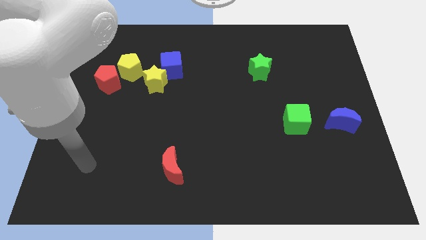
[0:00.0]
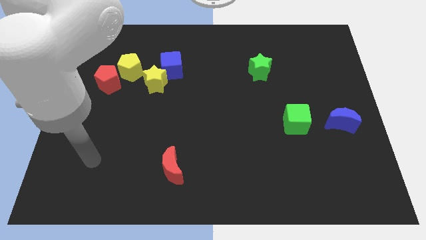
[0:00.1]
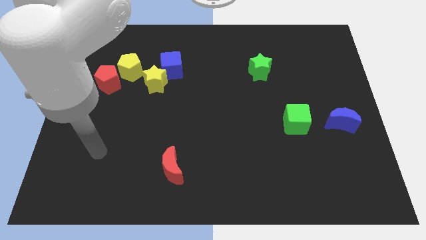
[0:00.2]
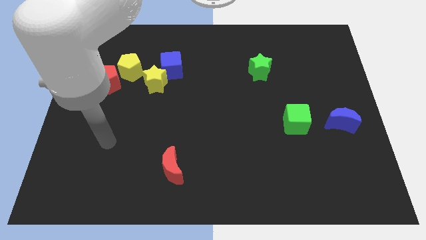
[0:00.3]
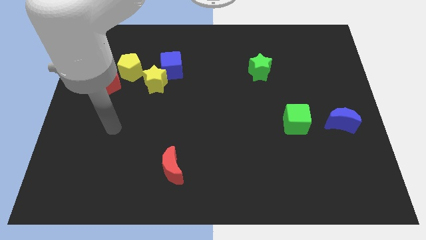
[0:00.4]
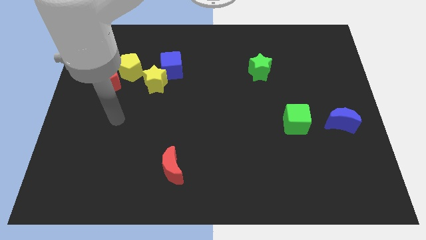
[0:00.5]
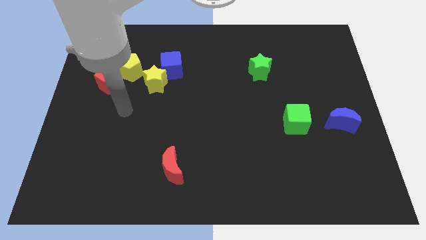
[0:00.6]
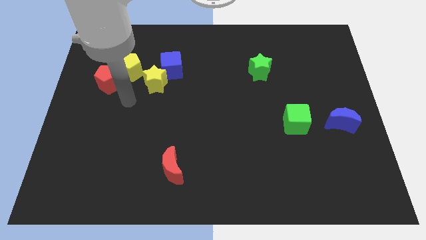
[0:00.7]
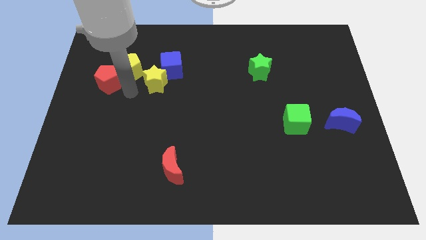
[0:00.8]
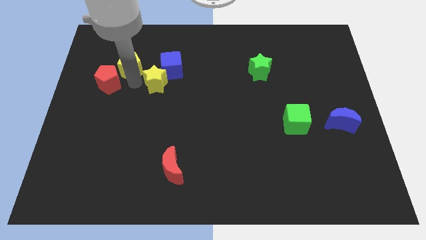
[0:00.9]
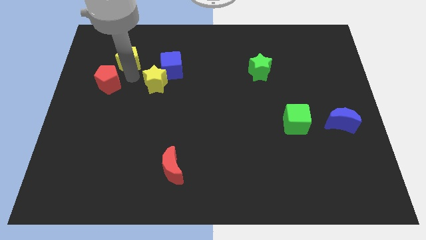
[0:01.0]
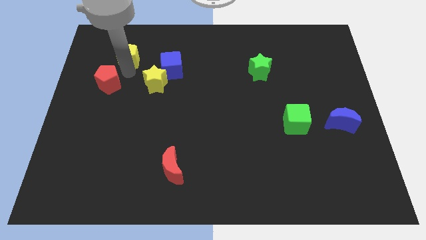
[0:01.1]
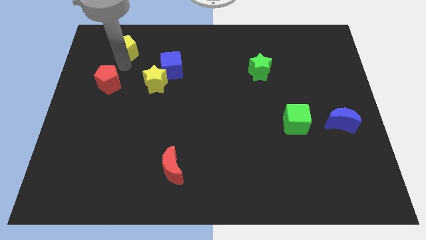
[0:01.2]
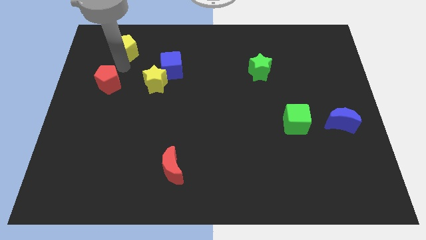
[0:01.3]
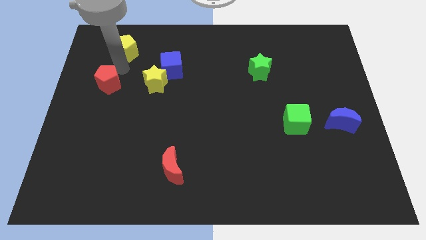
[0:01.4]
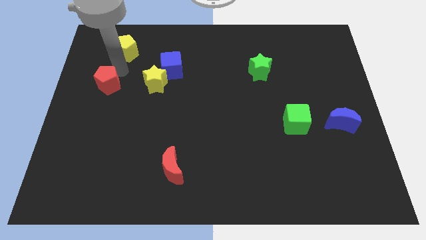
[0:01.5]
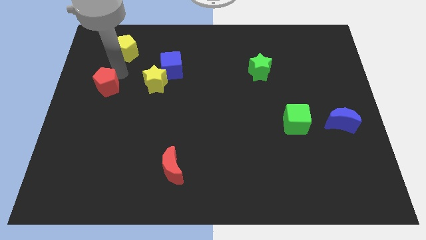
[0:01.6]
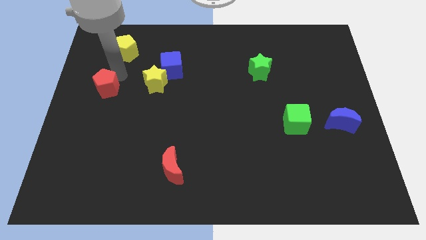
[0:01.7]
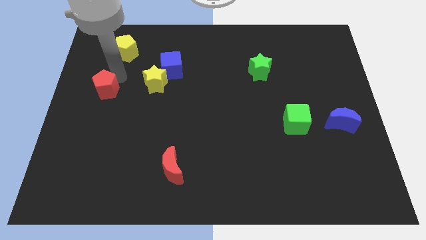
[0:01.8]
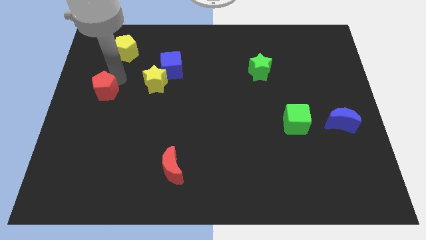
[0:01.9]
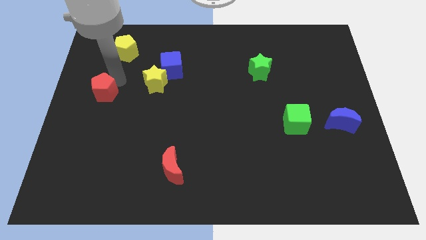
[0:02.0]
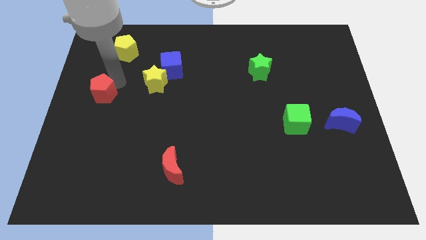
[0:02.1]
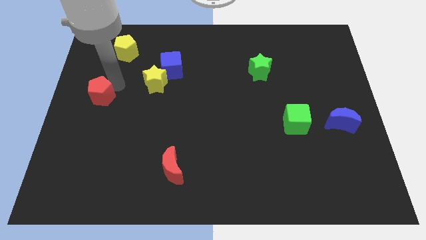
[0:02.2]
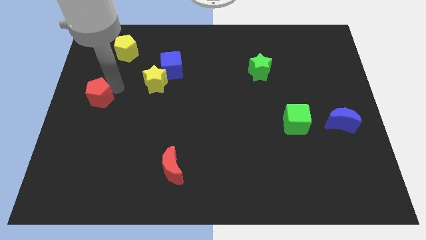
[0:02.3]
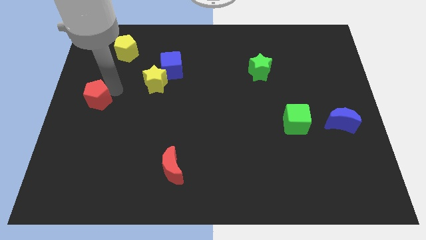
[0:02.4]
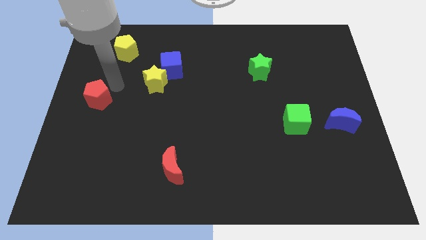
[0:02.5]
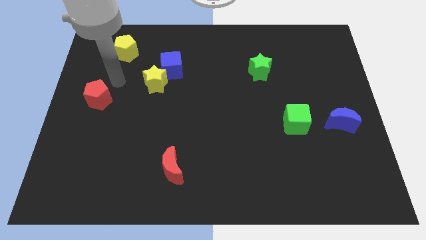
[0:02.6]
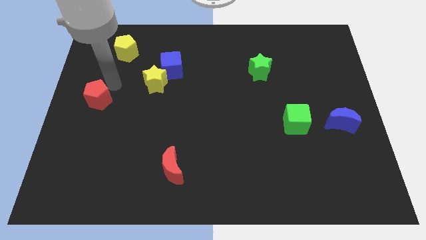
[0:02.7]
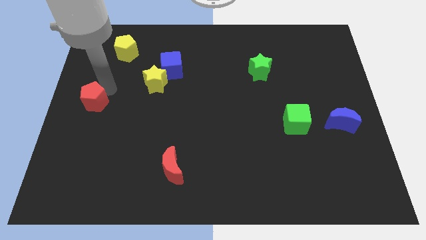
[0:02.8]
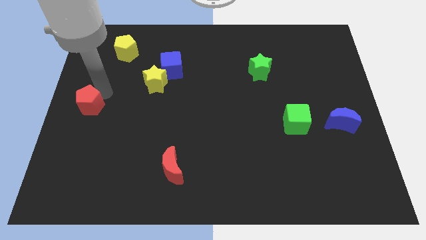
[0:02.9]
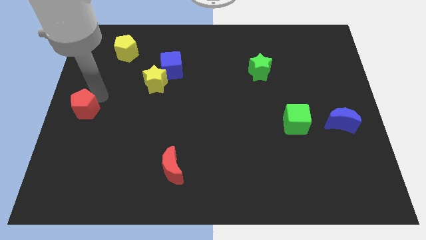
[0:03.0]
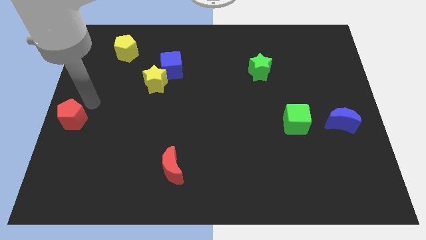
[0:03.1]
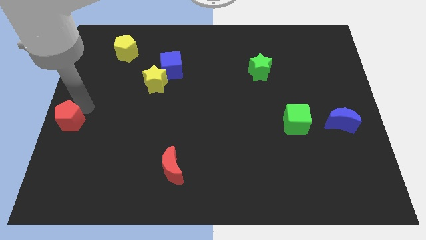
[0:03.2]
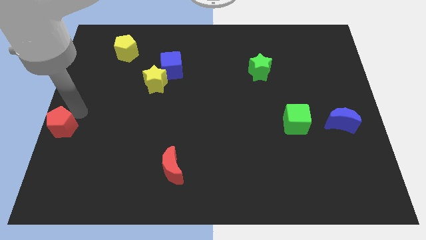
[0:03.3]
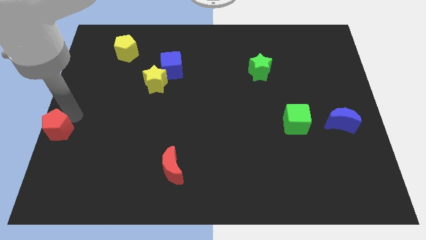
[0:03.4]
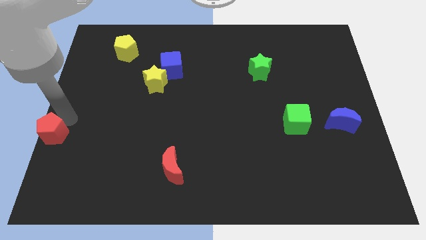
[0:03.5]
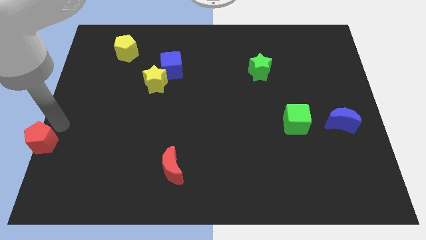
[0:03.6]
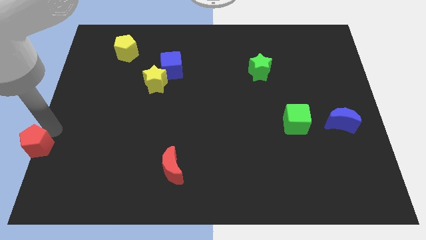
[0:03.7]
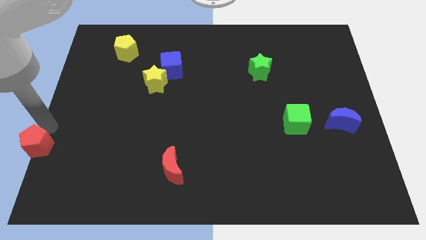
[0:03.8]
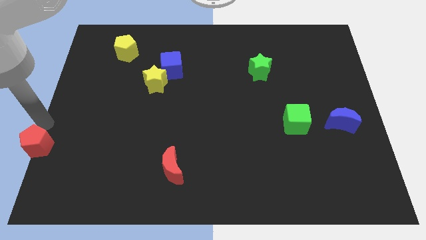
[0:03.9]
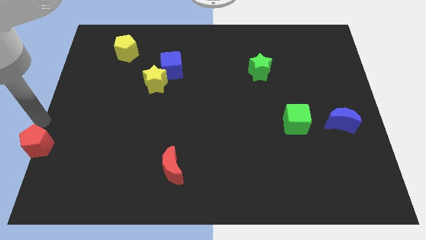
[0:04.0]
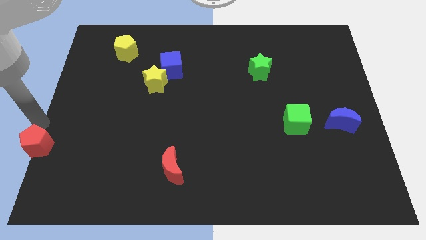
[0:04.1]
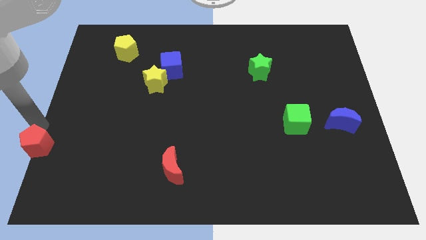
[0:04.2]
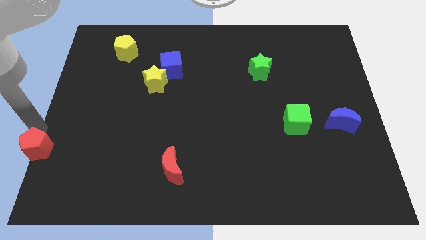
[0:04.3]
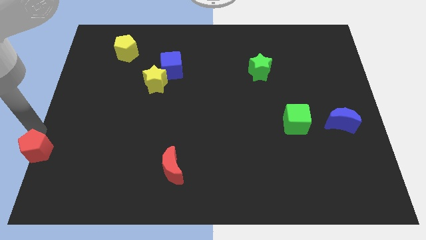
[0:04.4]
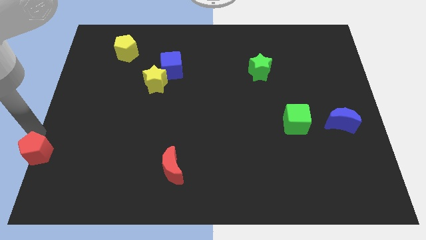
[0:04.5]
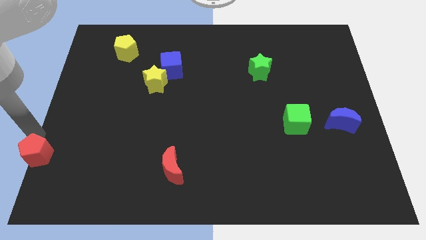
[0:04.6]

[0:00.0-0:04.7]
slide the red pentagon to the bottom left

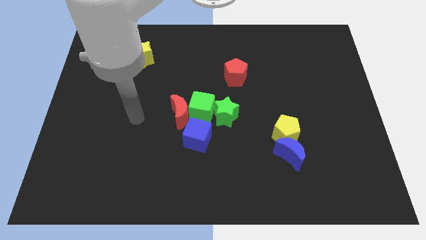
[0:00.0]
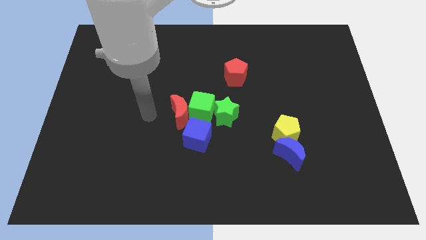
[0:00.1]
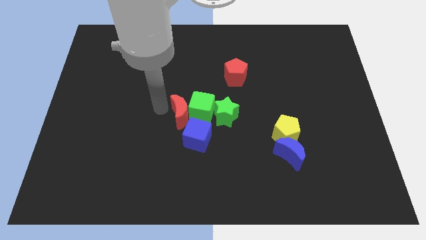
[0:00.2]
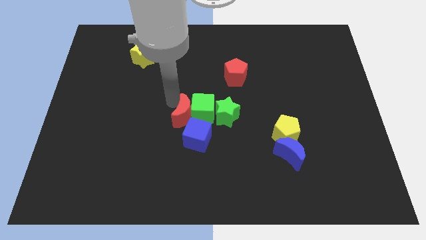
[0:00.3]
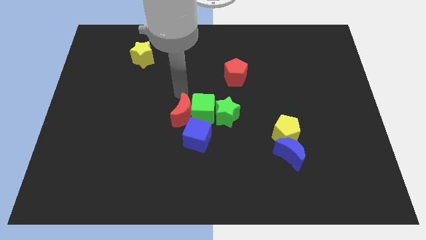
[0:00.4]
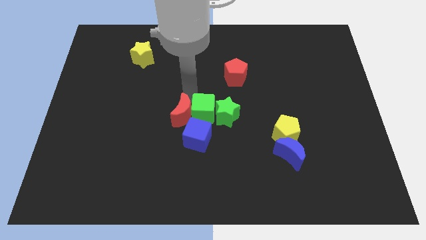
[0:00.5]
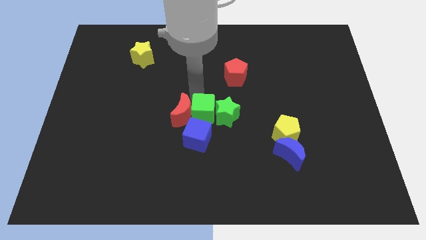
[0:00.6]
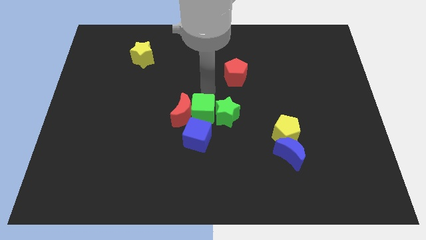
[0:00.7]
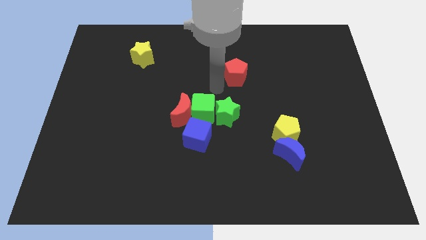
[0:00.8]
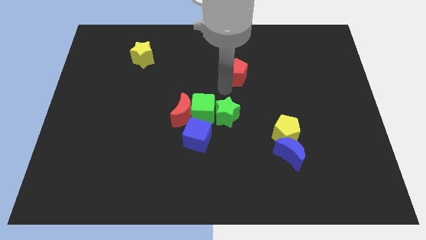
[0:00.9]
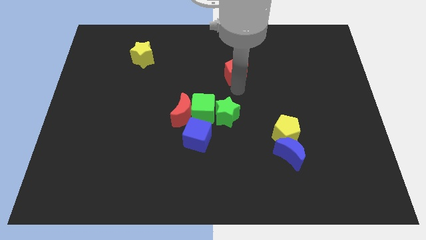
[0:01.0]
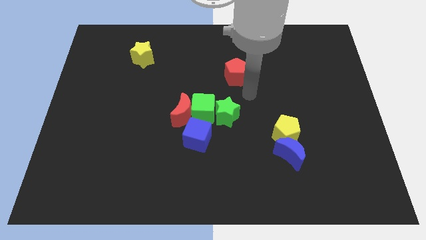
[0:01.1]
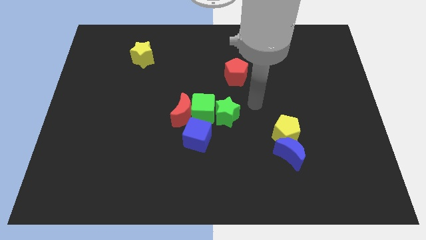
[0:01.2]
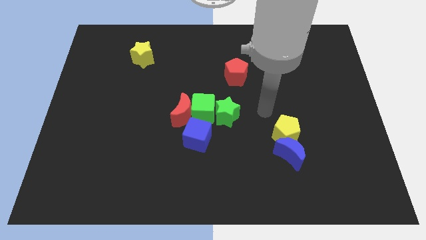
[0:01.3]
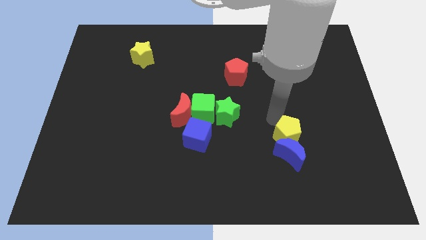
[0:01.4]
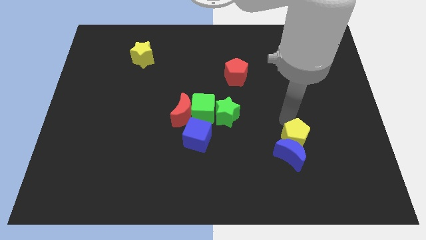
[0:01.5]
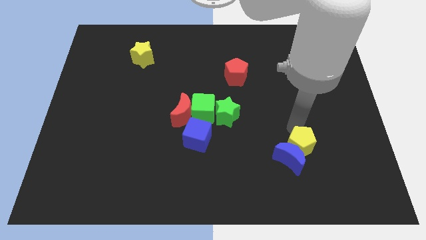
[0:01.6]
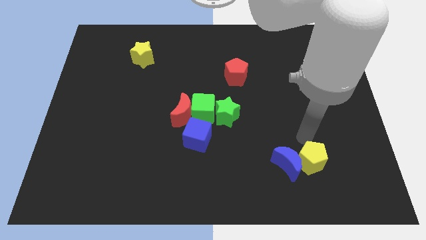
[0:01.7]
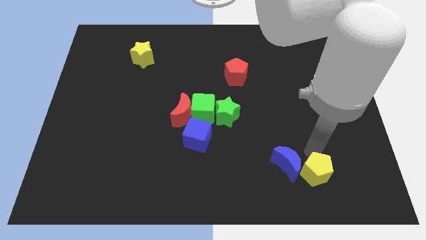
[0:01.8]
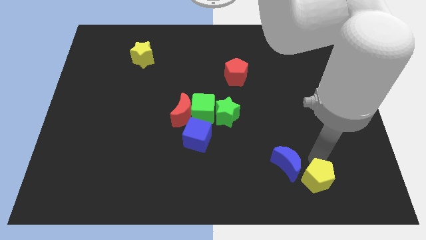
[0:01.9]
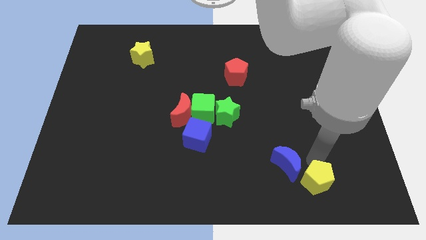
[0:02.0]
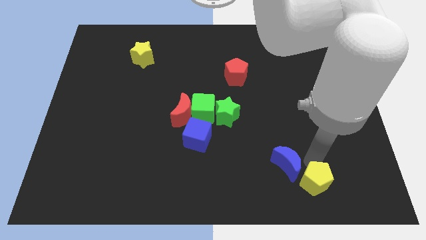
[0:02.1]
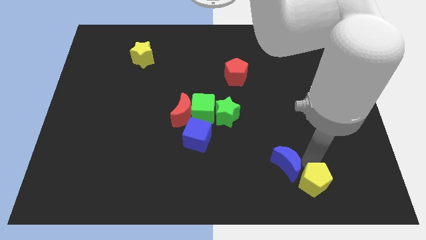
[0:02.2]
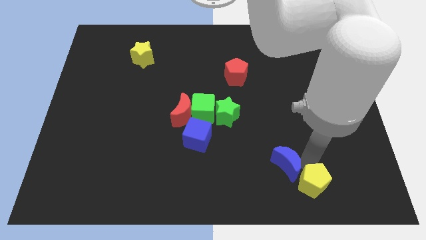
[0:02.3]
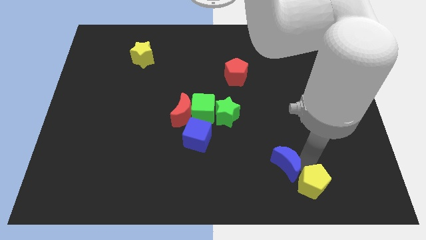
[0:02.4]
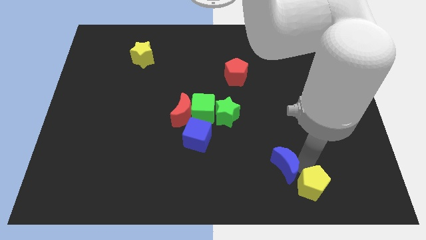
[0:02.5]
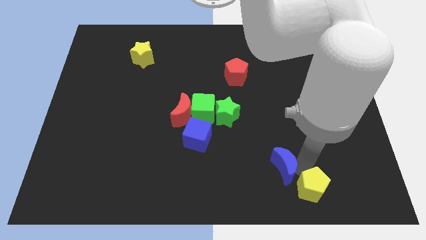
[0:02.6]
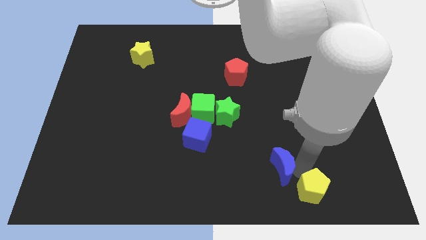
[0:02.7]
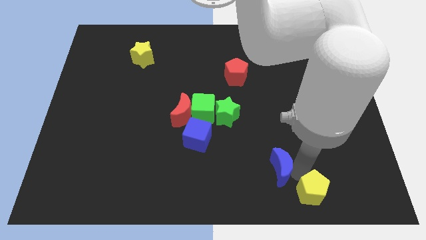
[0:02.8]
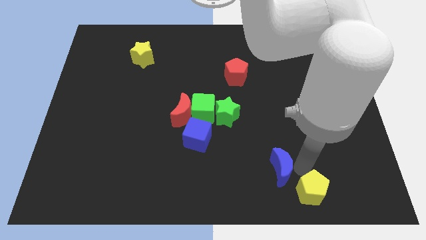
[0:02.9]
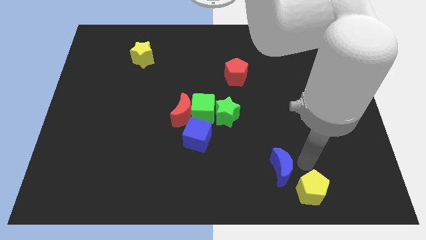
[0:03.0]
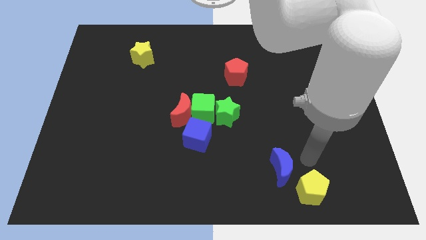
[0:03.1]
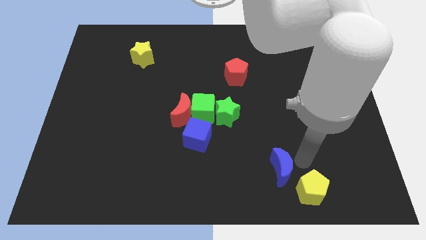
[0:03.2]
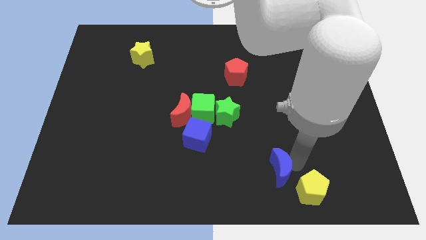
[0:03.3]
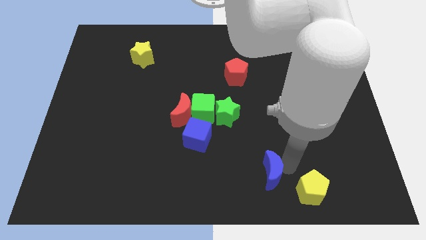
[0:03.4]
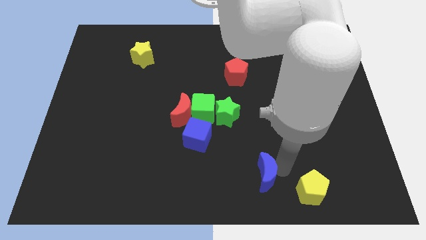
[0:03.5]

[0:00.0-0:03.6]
put the blue moon to the bottom side
